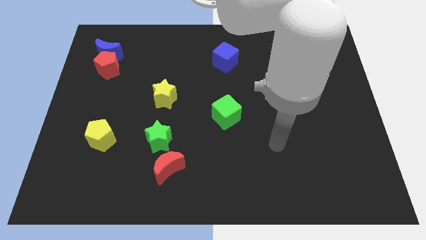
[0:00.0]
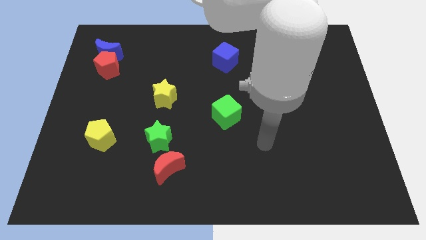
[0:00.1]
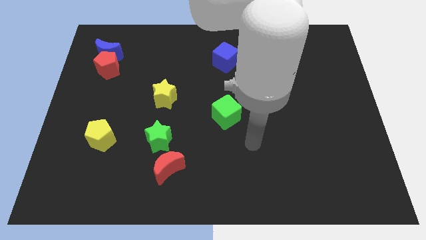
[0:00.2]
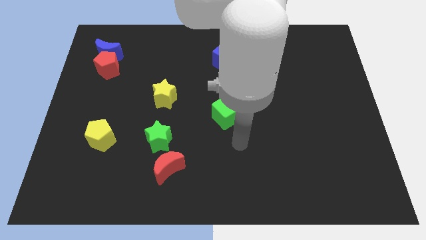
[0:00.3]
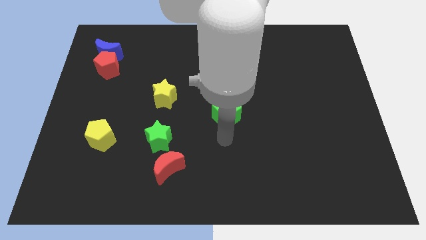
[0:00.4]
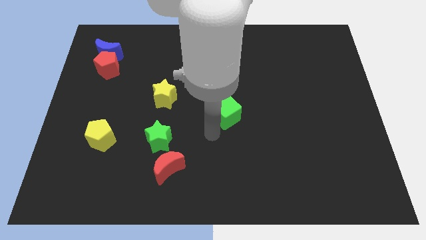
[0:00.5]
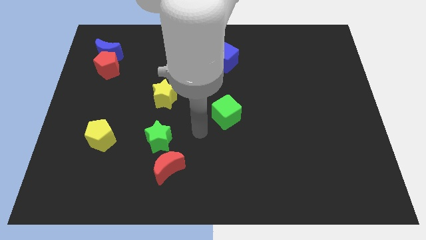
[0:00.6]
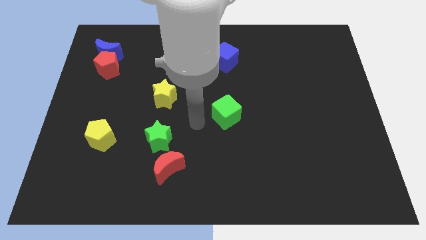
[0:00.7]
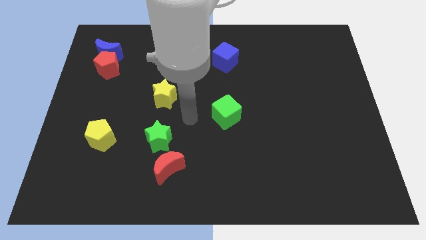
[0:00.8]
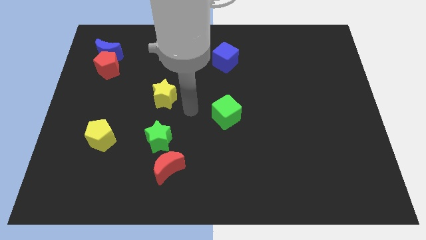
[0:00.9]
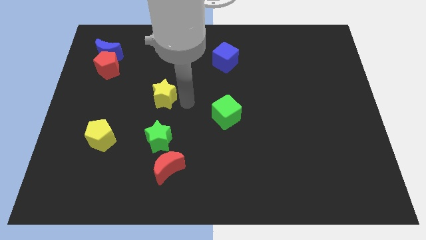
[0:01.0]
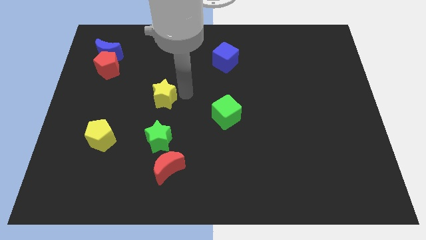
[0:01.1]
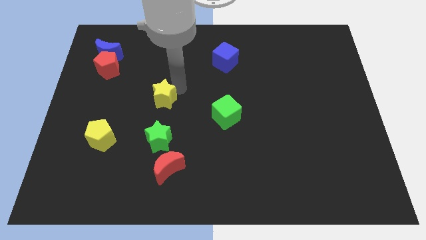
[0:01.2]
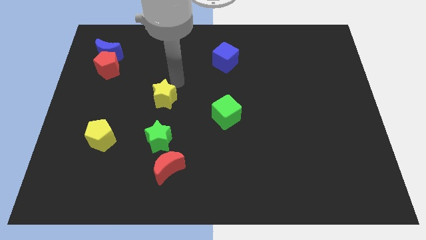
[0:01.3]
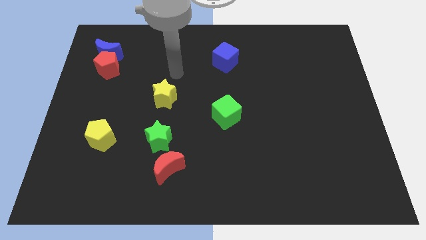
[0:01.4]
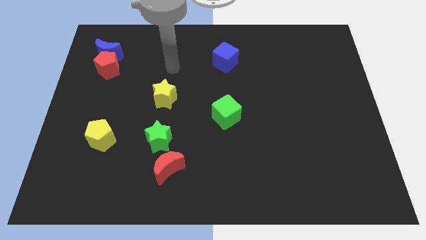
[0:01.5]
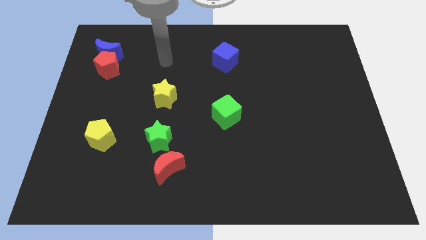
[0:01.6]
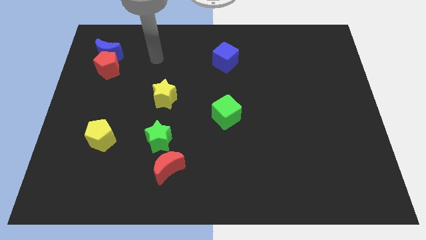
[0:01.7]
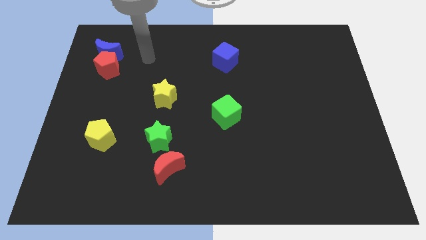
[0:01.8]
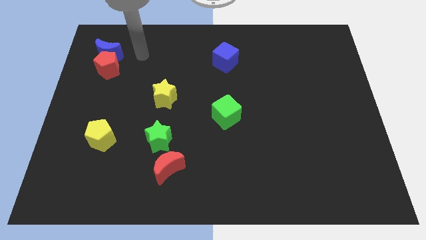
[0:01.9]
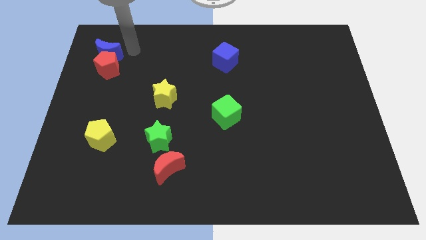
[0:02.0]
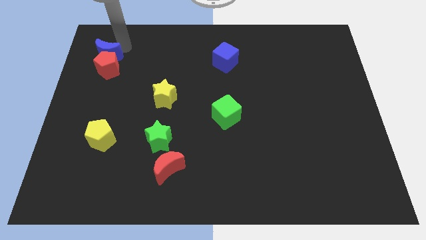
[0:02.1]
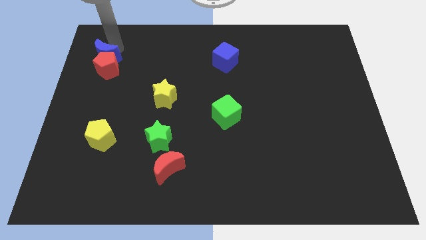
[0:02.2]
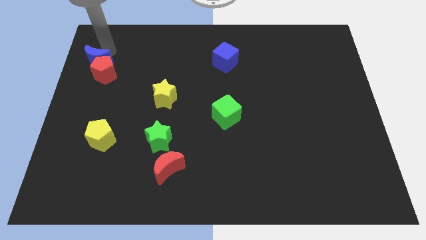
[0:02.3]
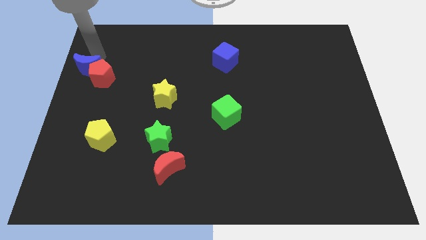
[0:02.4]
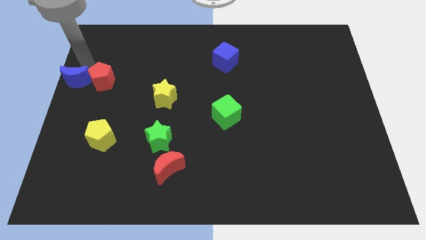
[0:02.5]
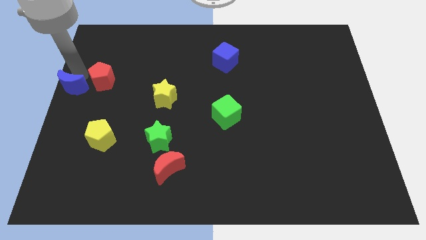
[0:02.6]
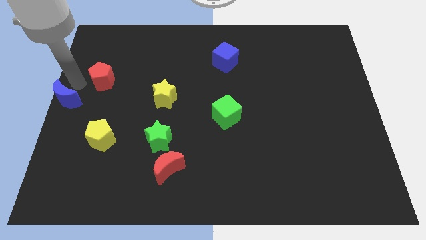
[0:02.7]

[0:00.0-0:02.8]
separate the red pentagon from the blue moon

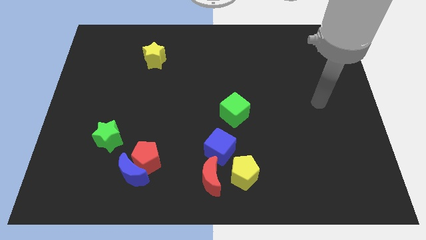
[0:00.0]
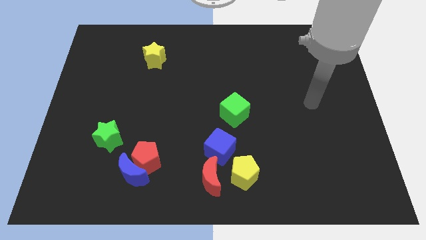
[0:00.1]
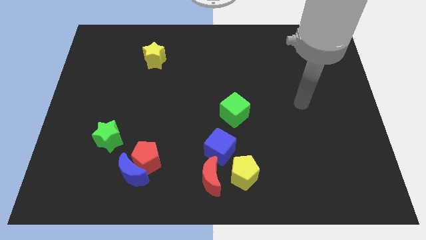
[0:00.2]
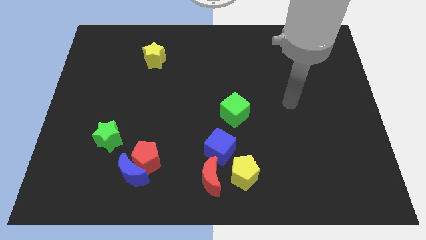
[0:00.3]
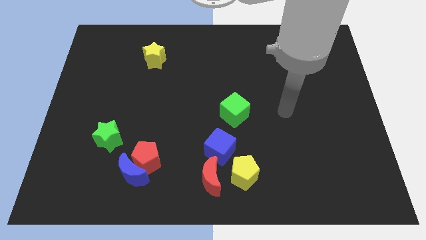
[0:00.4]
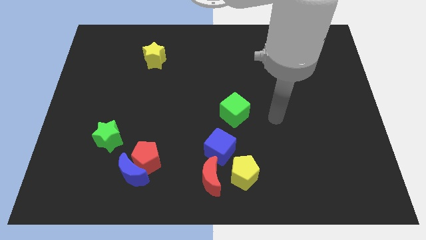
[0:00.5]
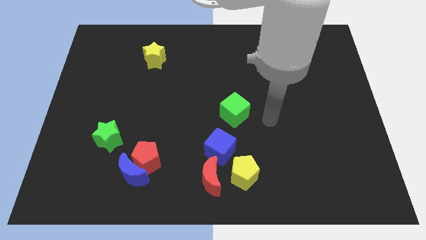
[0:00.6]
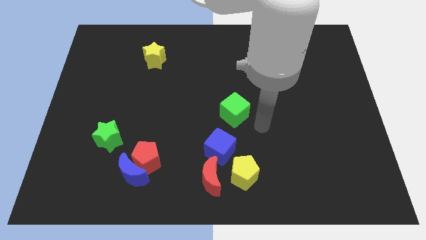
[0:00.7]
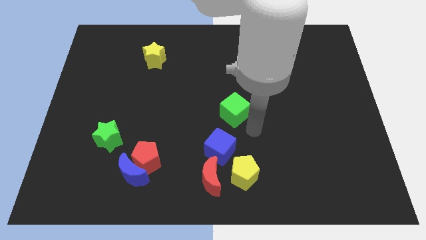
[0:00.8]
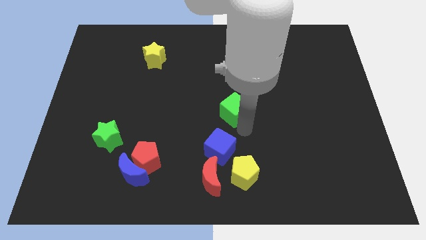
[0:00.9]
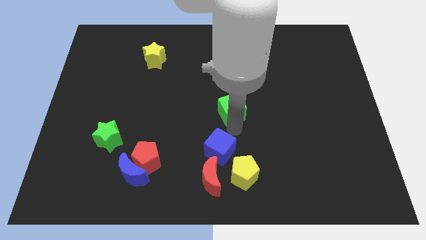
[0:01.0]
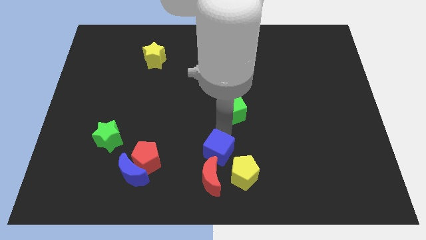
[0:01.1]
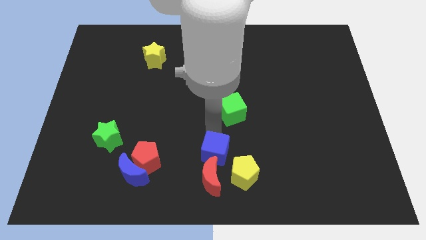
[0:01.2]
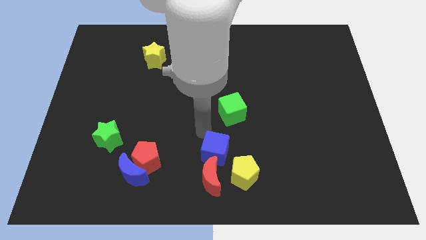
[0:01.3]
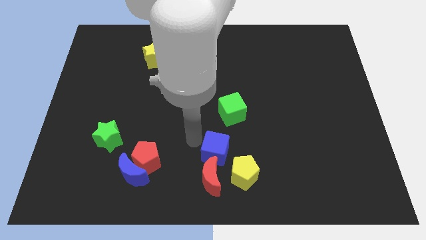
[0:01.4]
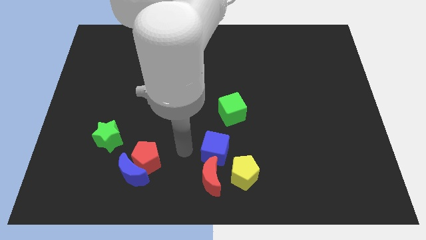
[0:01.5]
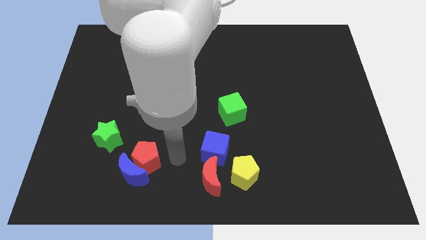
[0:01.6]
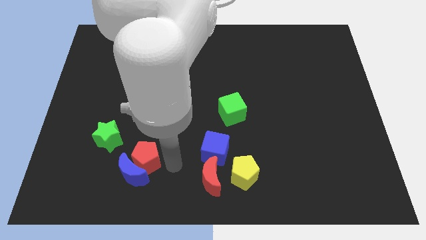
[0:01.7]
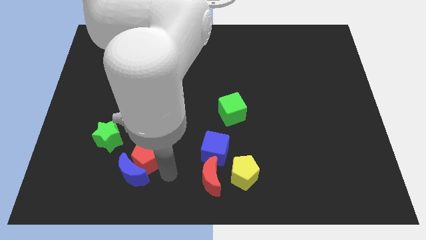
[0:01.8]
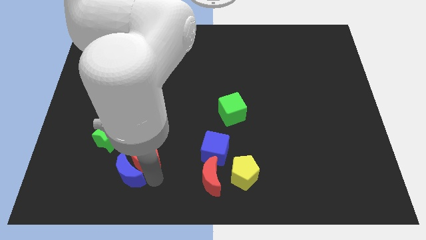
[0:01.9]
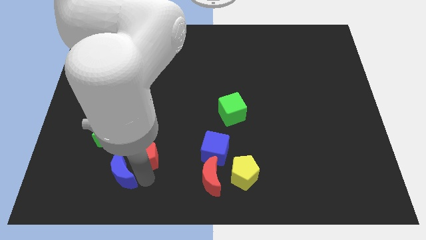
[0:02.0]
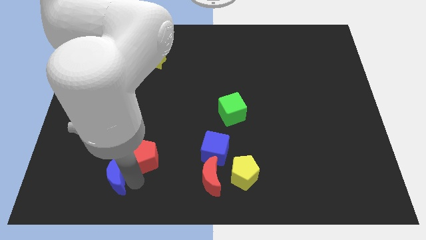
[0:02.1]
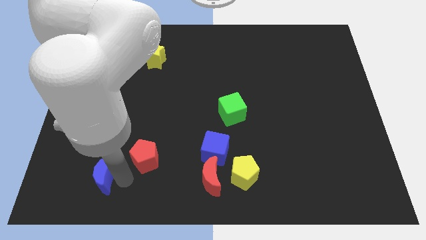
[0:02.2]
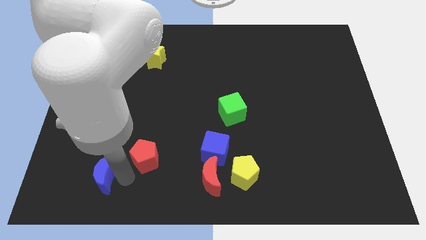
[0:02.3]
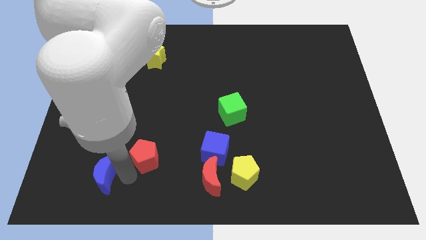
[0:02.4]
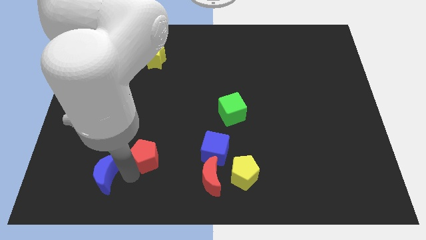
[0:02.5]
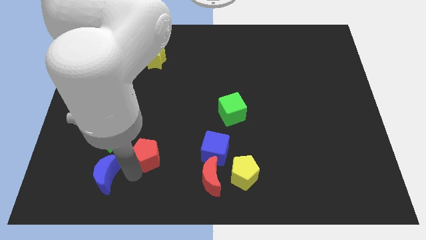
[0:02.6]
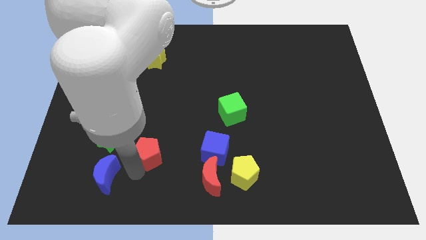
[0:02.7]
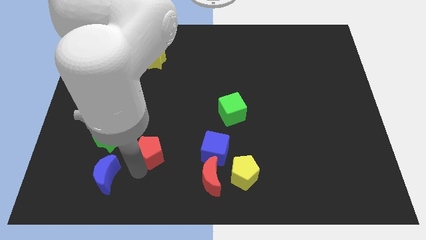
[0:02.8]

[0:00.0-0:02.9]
pull the red pentagon apart from the blue moon

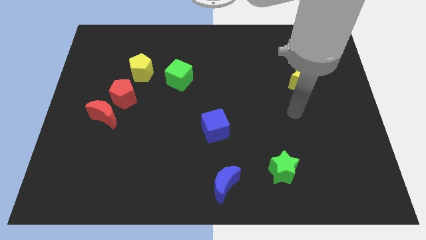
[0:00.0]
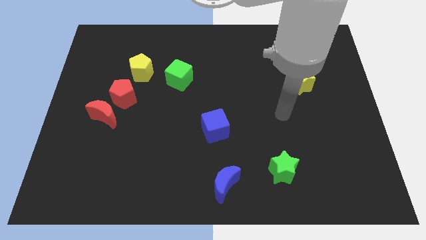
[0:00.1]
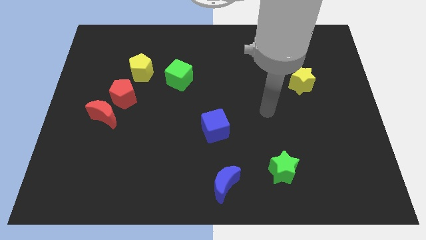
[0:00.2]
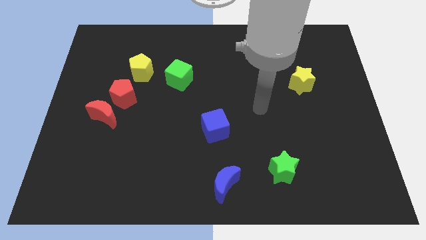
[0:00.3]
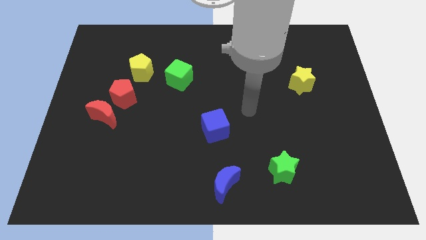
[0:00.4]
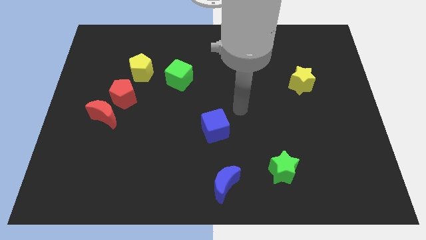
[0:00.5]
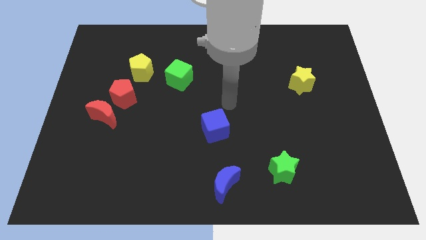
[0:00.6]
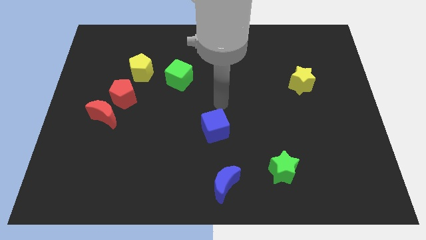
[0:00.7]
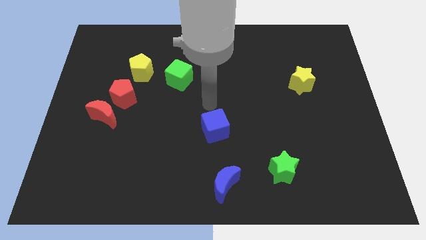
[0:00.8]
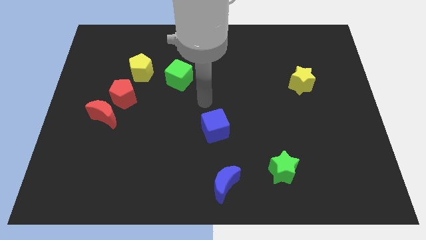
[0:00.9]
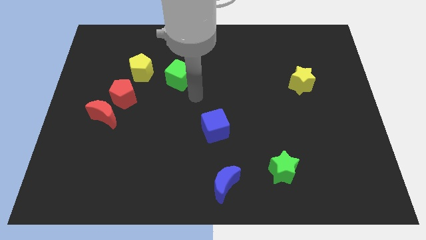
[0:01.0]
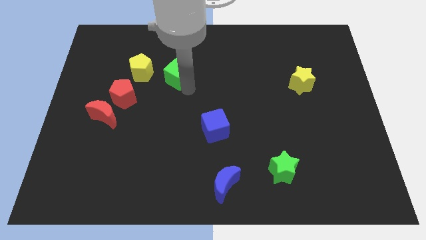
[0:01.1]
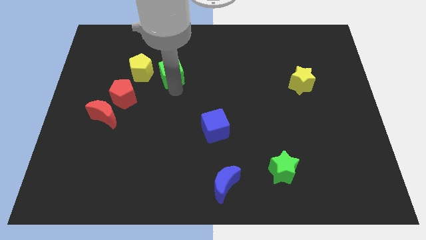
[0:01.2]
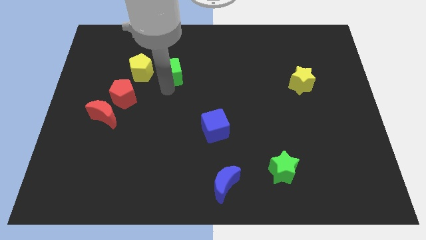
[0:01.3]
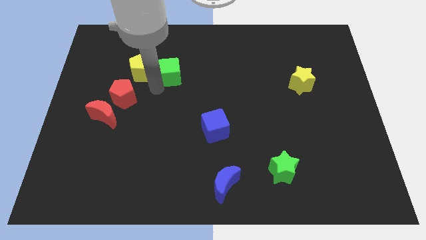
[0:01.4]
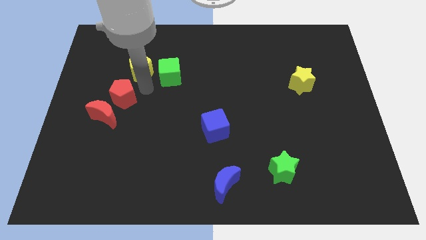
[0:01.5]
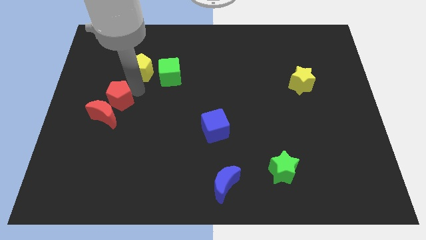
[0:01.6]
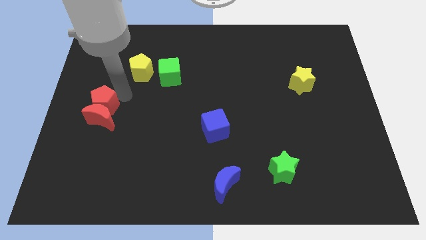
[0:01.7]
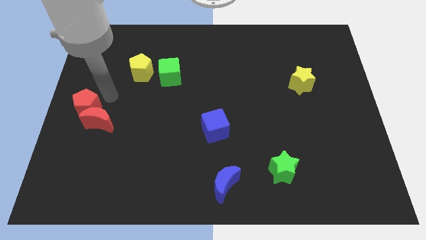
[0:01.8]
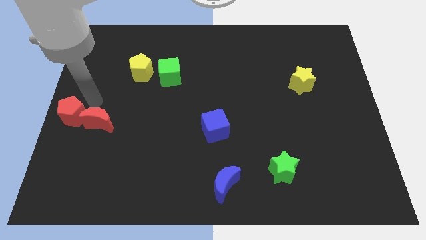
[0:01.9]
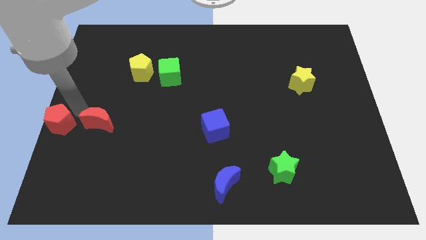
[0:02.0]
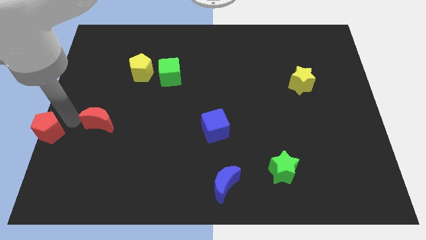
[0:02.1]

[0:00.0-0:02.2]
separate the red moon from the red pentagon

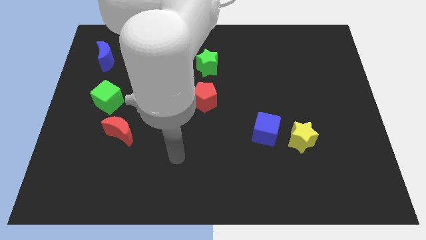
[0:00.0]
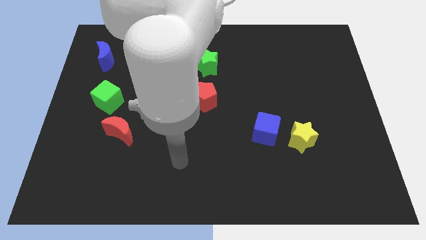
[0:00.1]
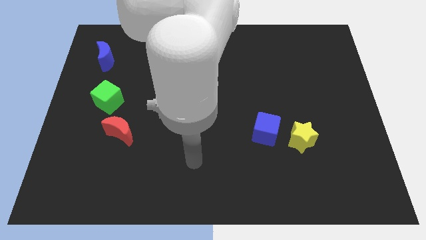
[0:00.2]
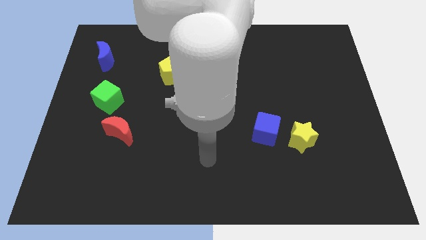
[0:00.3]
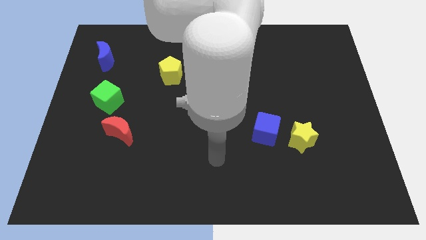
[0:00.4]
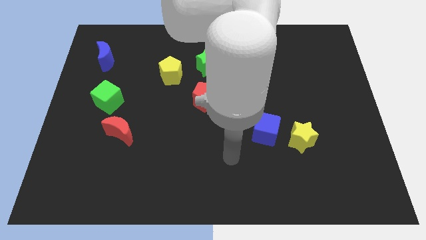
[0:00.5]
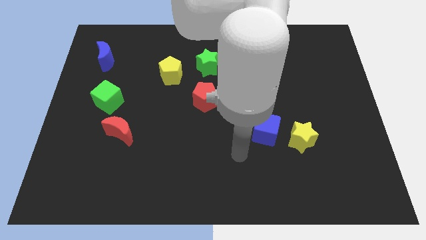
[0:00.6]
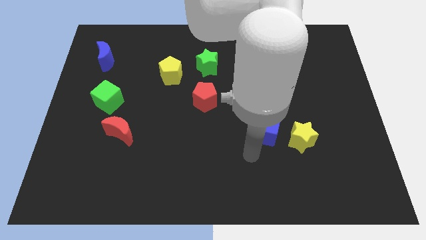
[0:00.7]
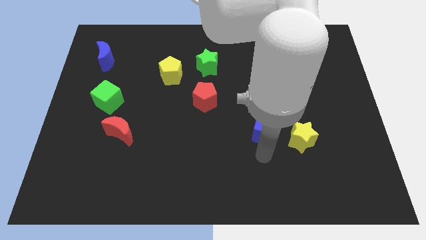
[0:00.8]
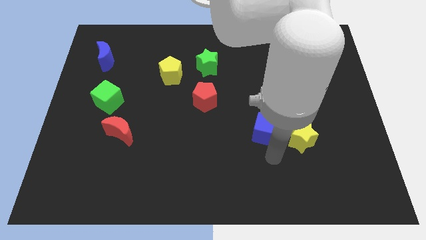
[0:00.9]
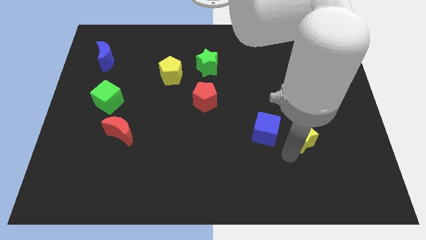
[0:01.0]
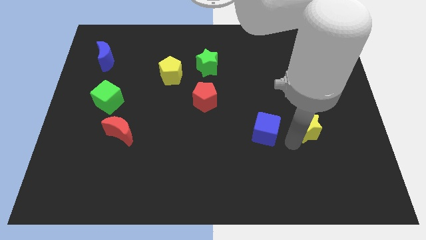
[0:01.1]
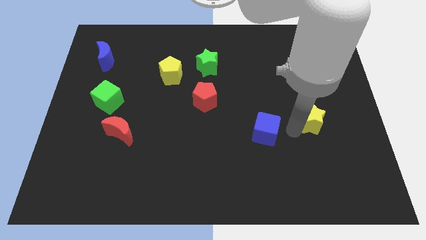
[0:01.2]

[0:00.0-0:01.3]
separate the blue cube from the yellow star

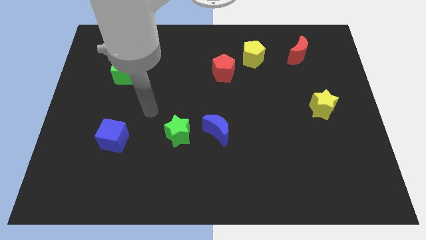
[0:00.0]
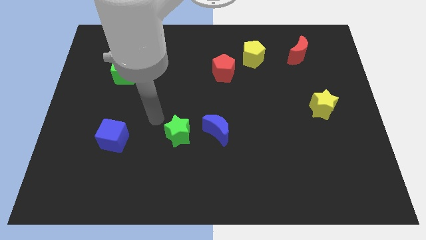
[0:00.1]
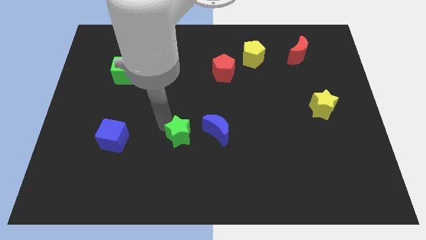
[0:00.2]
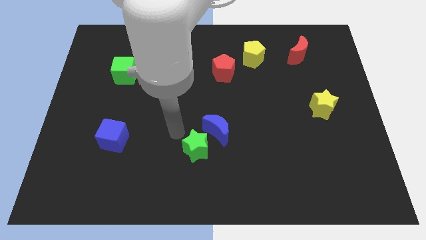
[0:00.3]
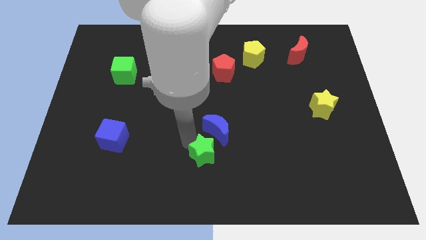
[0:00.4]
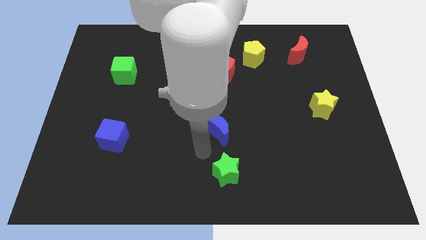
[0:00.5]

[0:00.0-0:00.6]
separate the blue moon from the green star
